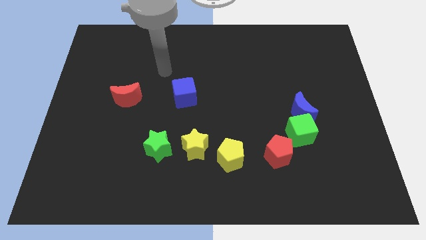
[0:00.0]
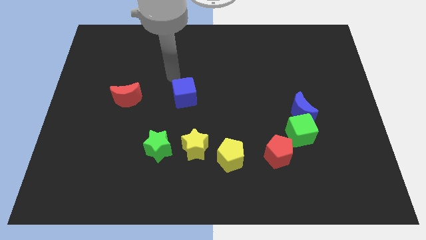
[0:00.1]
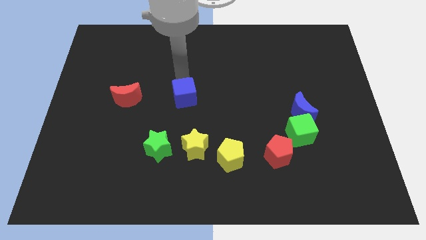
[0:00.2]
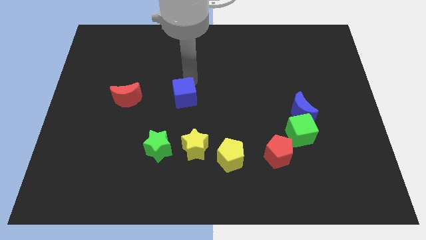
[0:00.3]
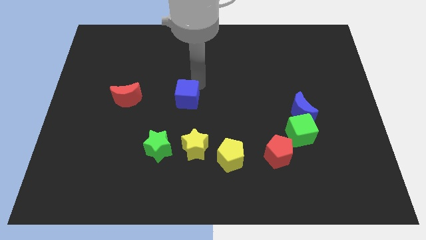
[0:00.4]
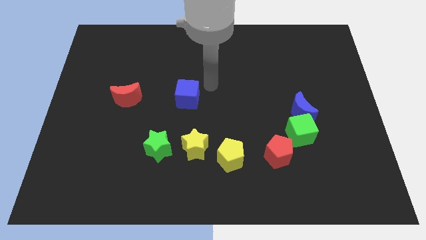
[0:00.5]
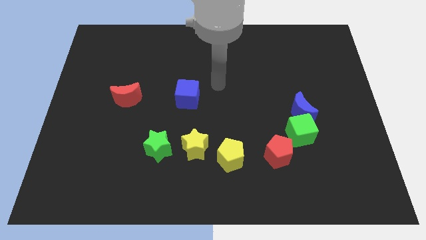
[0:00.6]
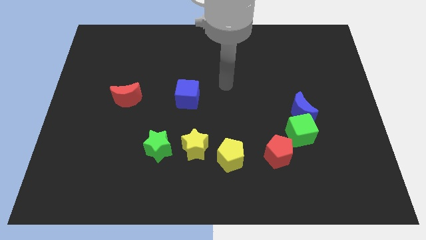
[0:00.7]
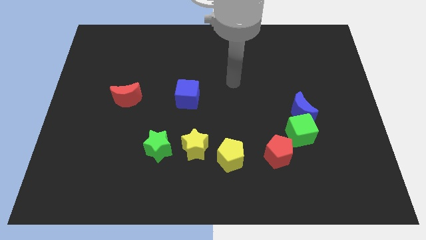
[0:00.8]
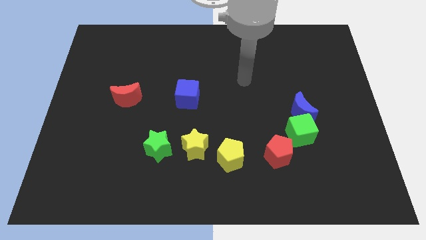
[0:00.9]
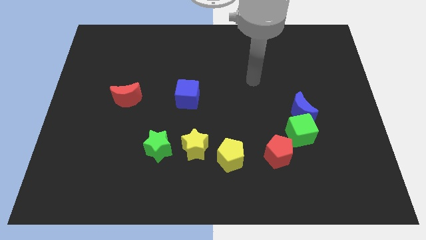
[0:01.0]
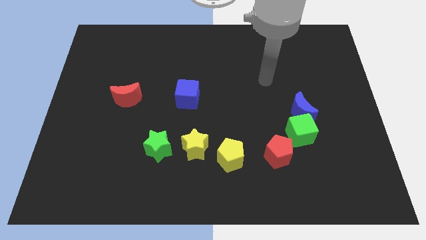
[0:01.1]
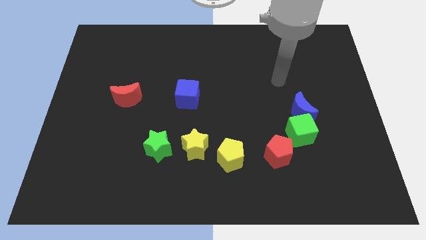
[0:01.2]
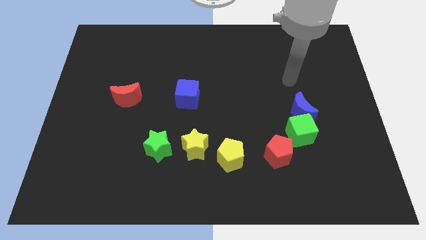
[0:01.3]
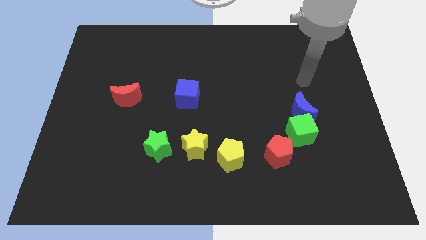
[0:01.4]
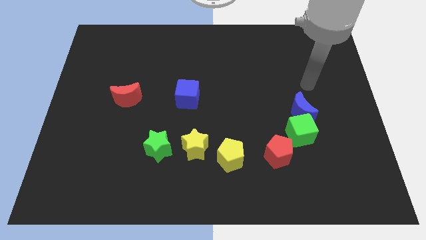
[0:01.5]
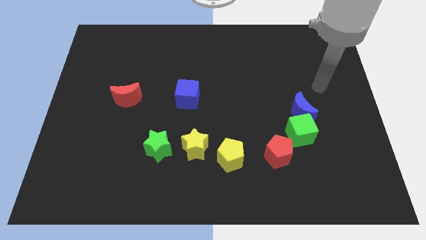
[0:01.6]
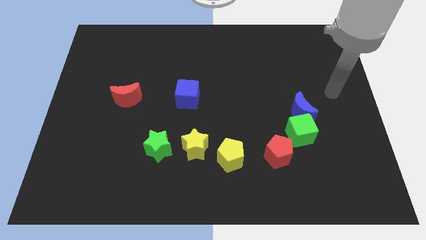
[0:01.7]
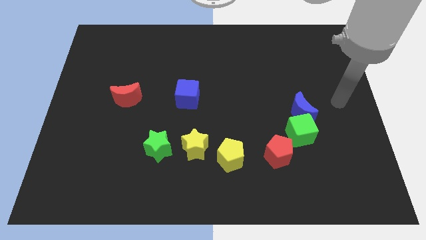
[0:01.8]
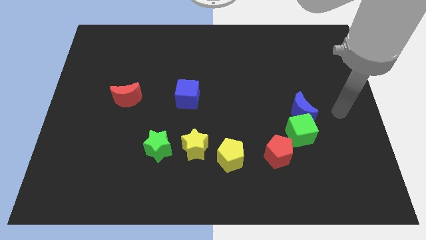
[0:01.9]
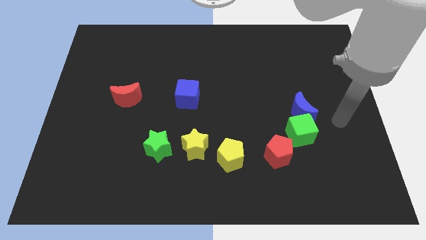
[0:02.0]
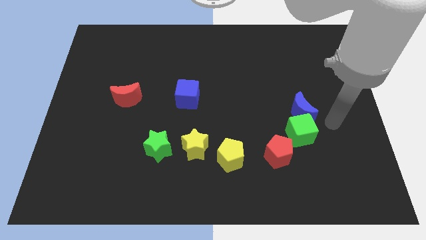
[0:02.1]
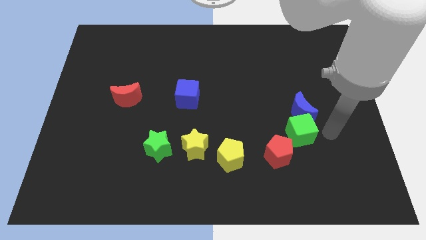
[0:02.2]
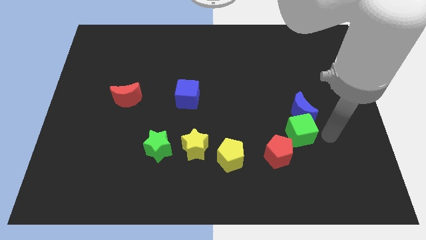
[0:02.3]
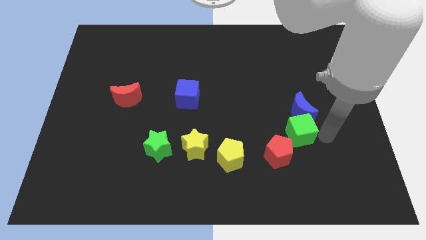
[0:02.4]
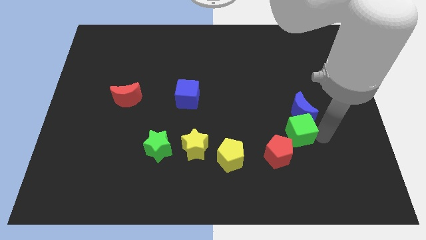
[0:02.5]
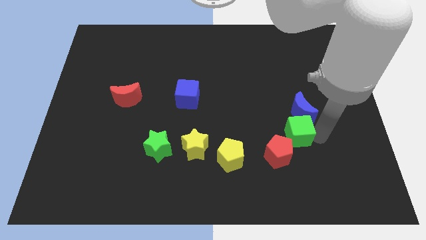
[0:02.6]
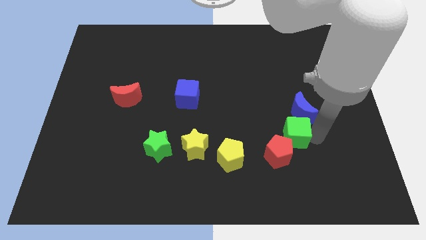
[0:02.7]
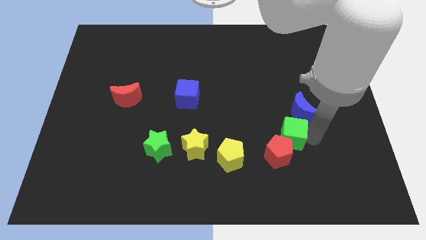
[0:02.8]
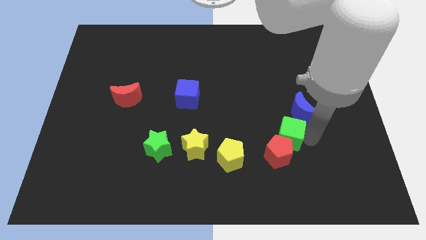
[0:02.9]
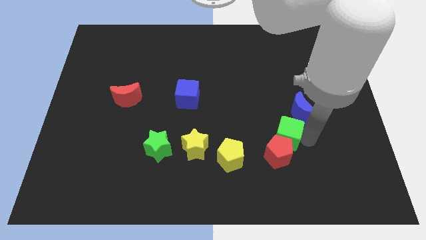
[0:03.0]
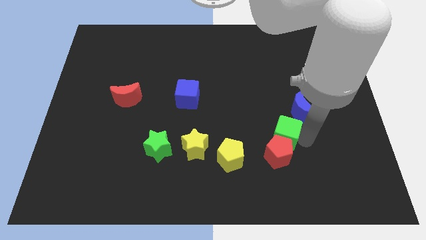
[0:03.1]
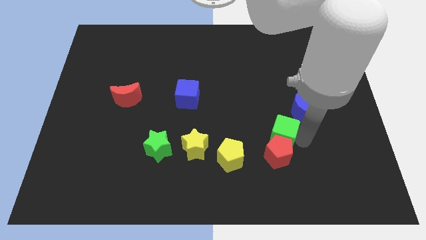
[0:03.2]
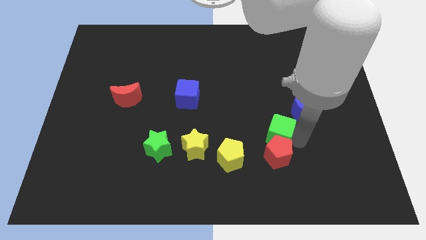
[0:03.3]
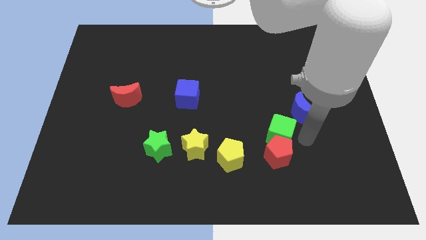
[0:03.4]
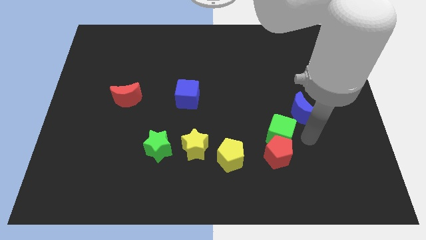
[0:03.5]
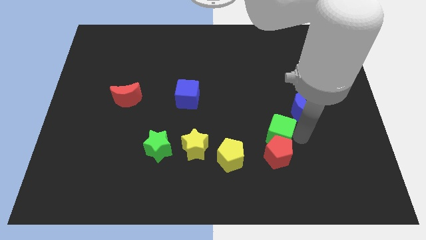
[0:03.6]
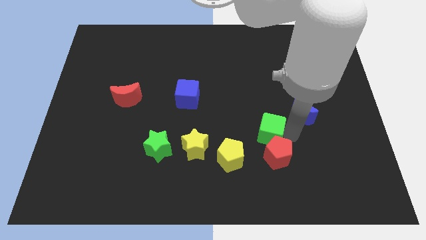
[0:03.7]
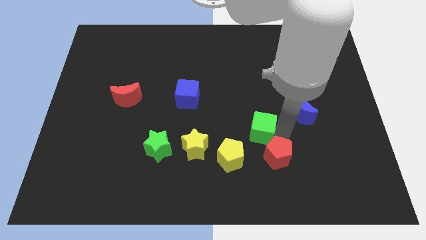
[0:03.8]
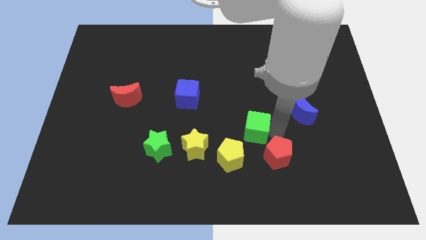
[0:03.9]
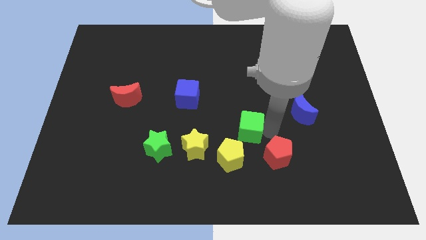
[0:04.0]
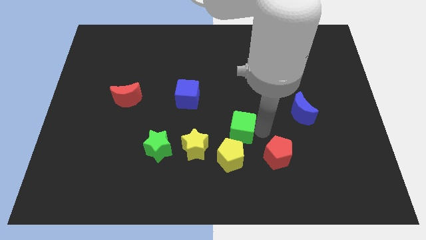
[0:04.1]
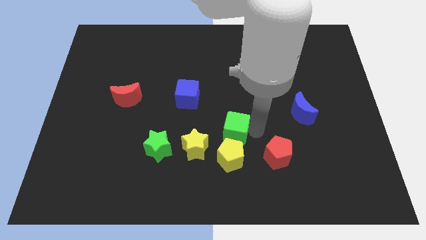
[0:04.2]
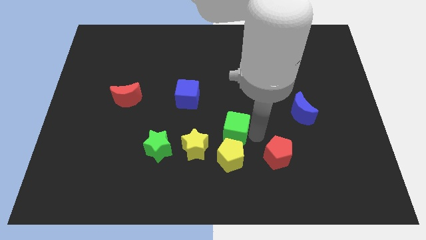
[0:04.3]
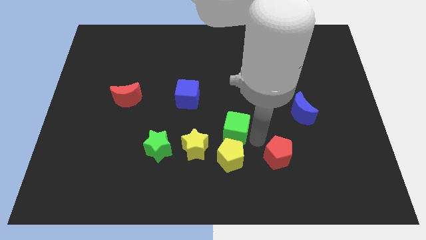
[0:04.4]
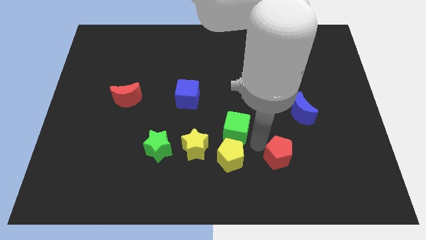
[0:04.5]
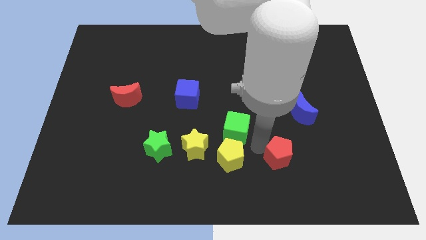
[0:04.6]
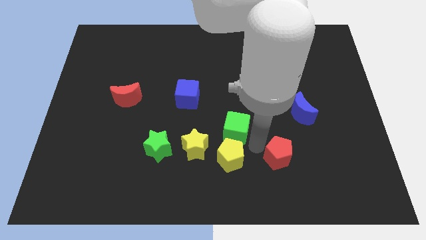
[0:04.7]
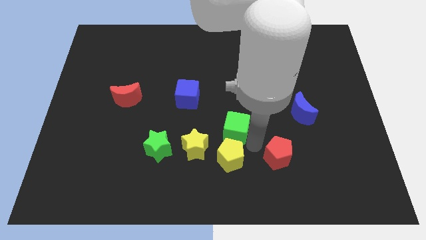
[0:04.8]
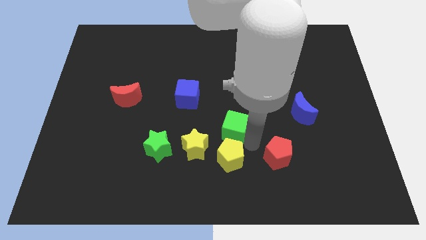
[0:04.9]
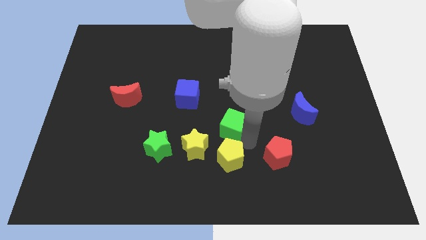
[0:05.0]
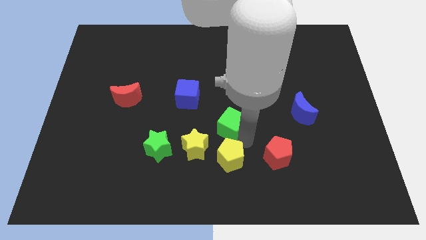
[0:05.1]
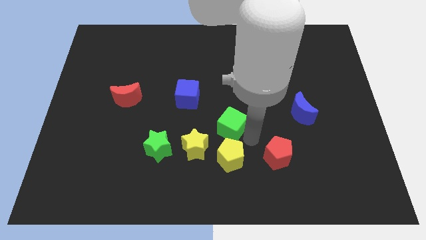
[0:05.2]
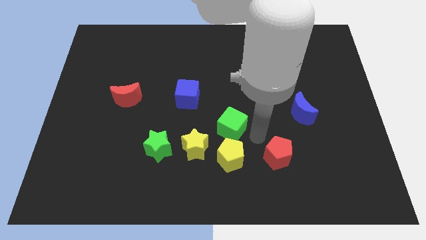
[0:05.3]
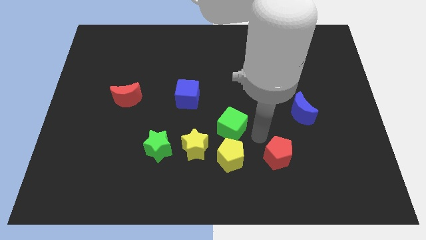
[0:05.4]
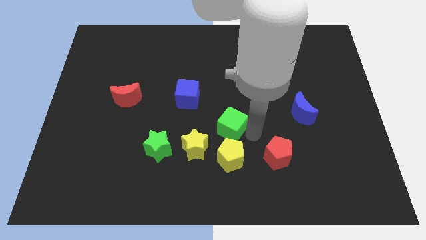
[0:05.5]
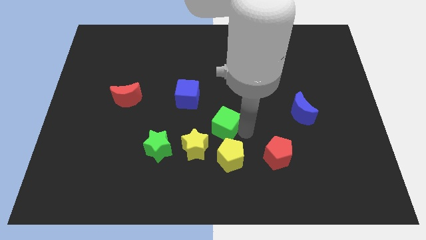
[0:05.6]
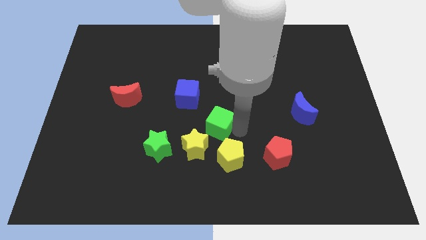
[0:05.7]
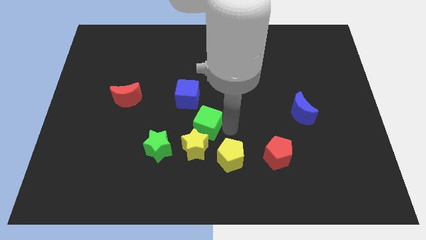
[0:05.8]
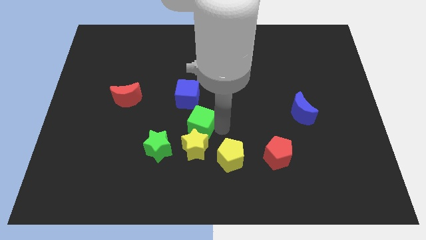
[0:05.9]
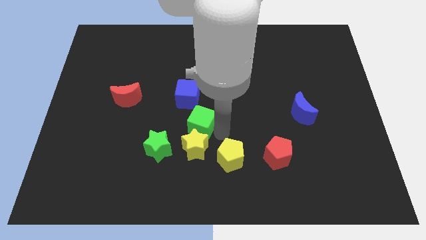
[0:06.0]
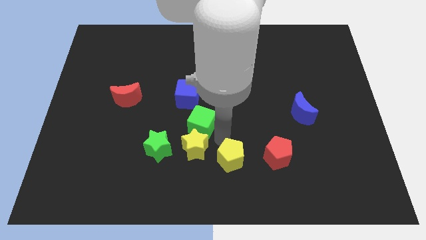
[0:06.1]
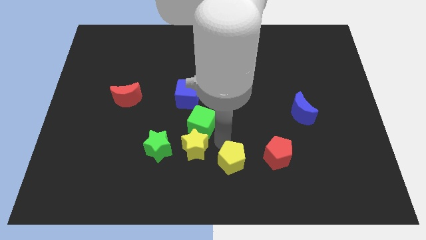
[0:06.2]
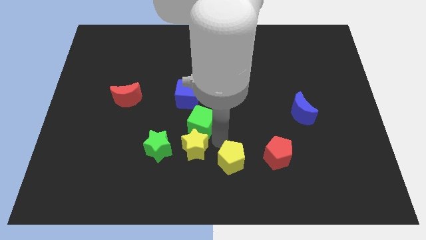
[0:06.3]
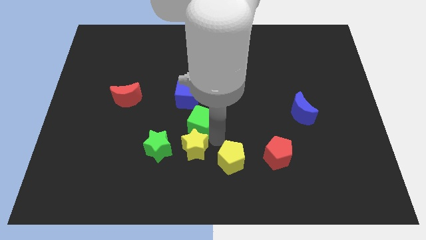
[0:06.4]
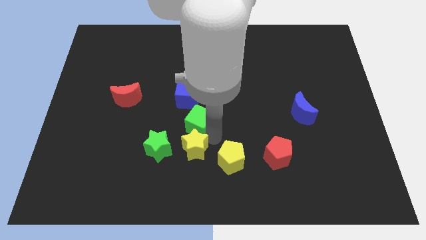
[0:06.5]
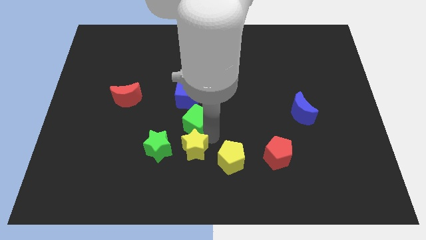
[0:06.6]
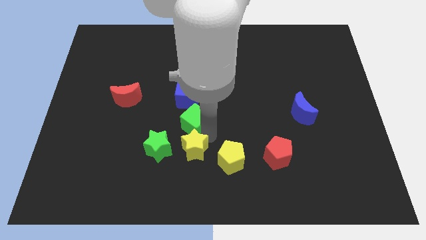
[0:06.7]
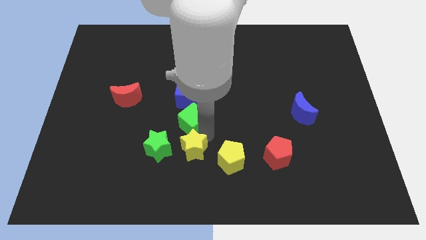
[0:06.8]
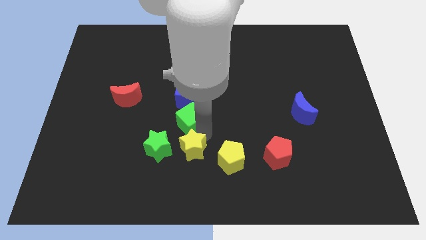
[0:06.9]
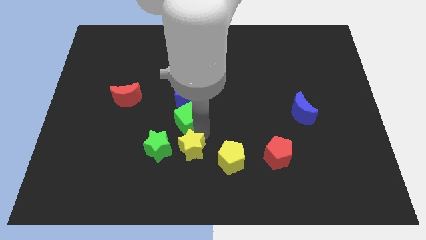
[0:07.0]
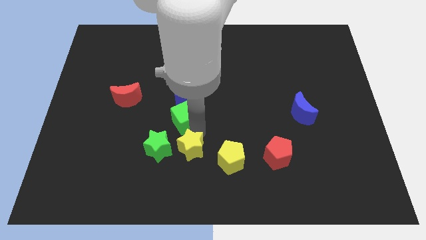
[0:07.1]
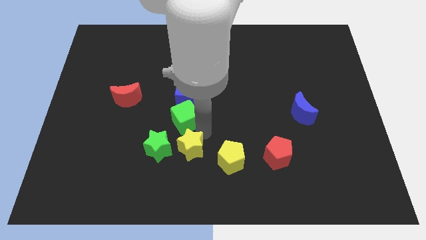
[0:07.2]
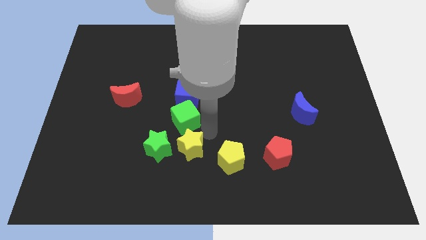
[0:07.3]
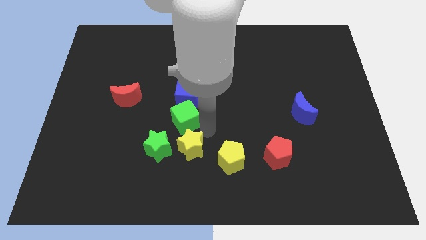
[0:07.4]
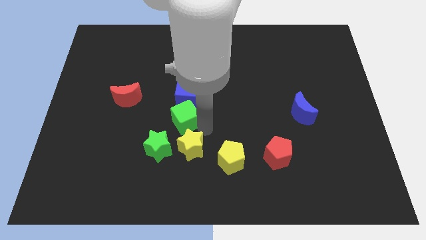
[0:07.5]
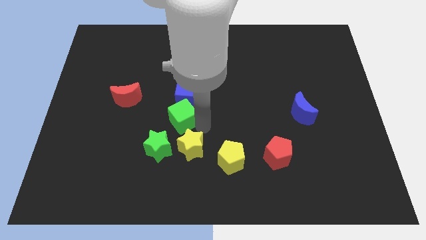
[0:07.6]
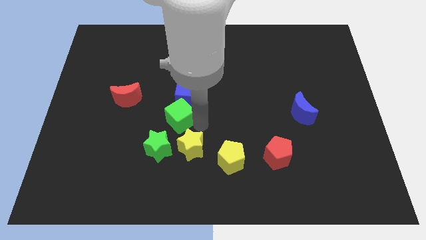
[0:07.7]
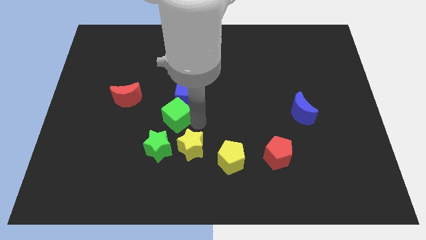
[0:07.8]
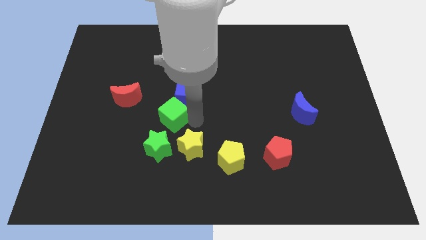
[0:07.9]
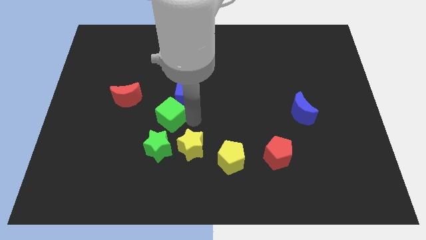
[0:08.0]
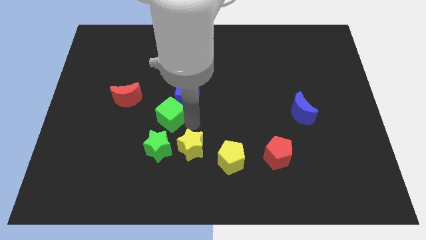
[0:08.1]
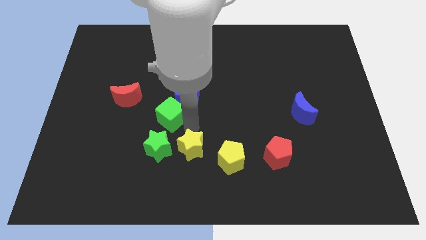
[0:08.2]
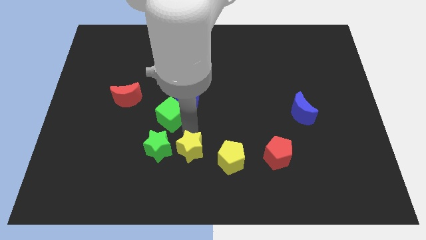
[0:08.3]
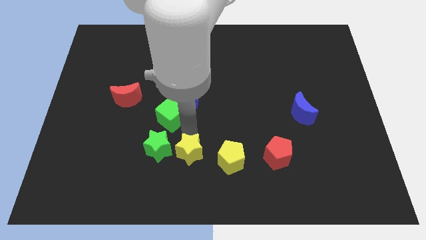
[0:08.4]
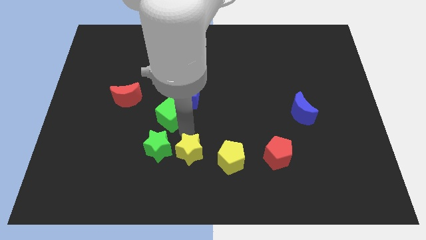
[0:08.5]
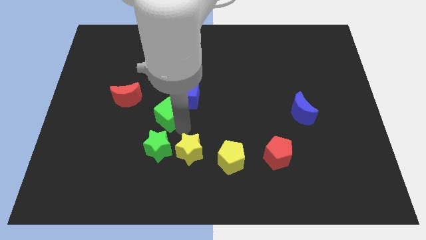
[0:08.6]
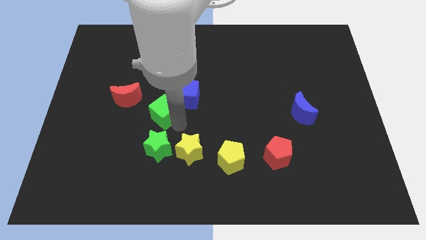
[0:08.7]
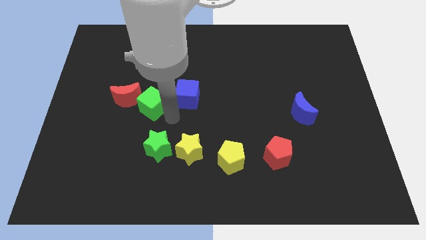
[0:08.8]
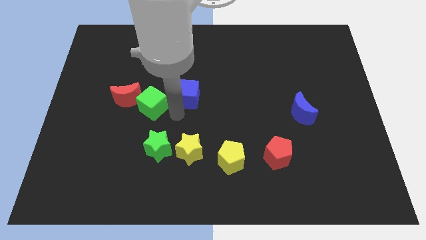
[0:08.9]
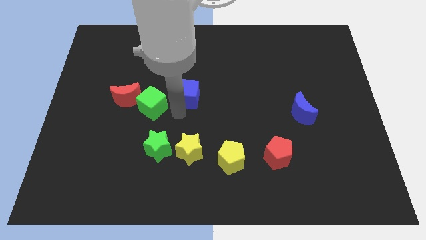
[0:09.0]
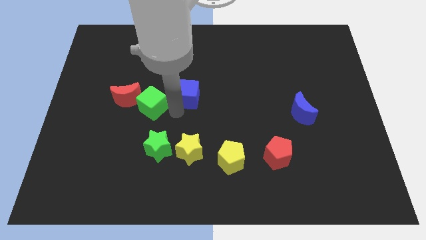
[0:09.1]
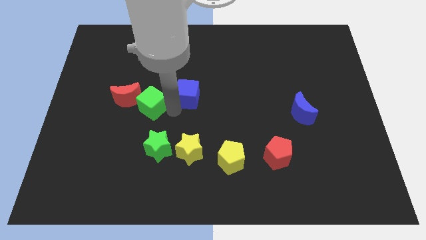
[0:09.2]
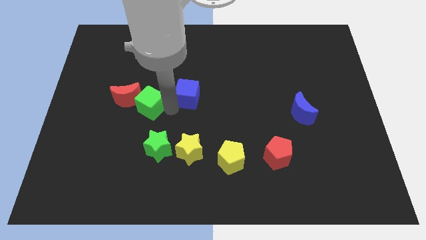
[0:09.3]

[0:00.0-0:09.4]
move the green cube towards the red moon
